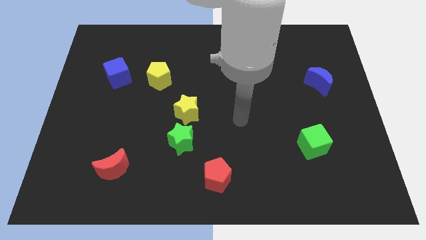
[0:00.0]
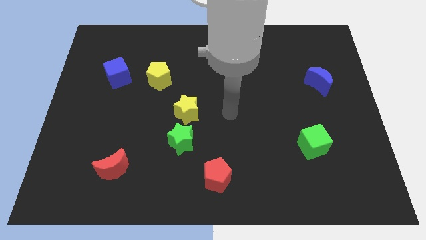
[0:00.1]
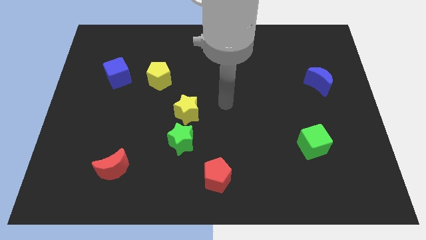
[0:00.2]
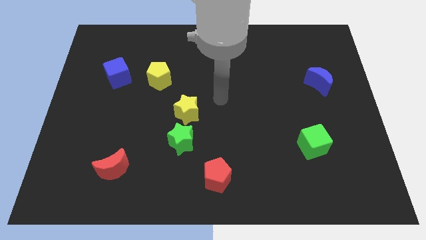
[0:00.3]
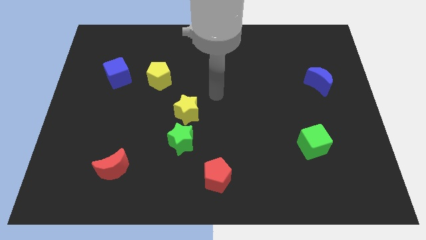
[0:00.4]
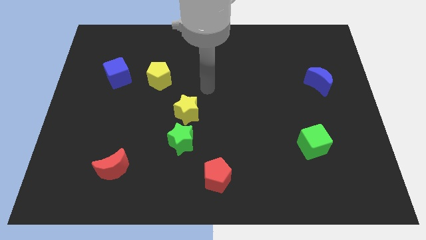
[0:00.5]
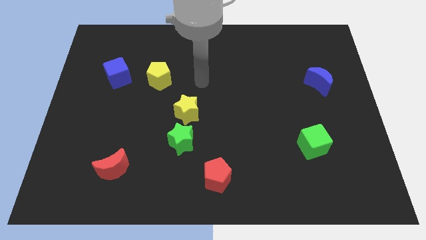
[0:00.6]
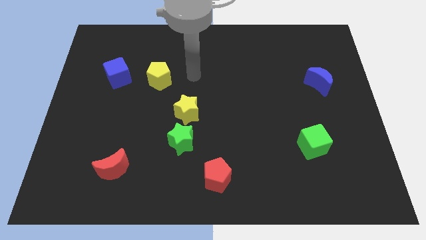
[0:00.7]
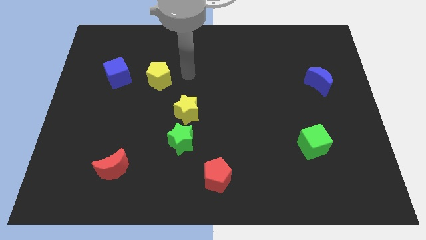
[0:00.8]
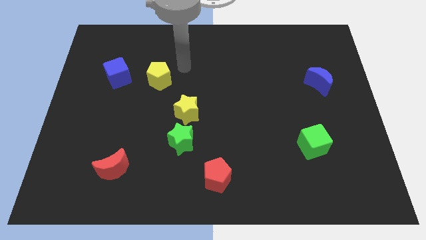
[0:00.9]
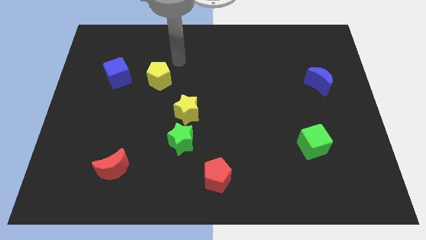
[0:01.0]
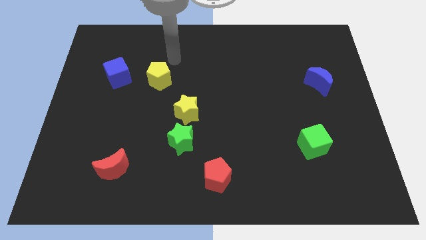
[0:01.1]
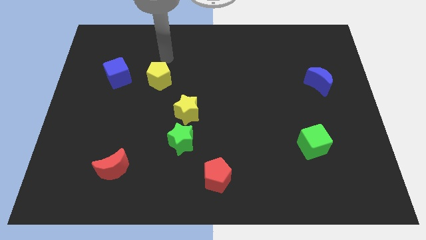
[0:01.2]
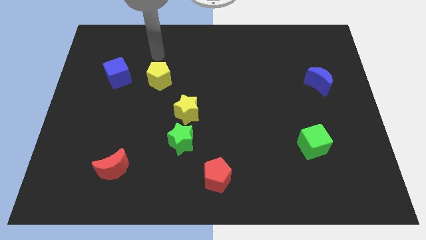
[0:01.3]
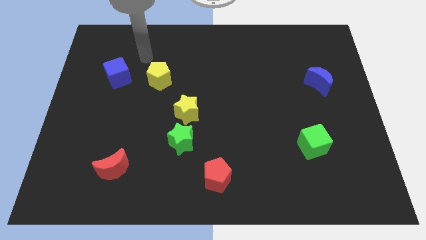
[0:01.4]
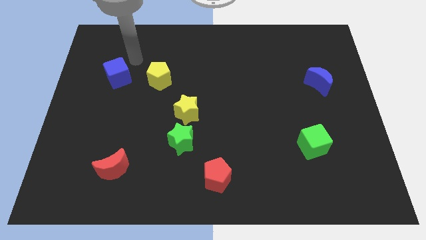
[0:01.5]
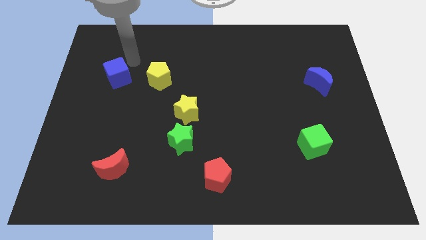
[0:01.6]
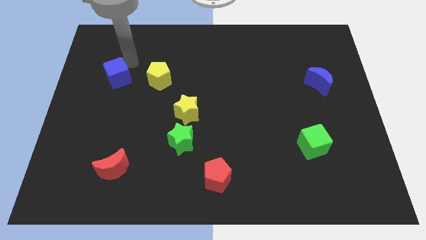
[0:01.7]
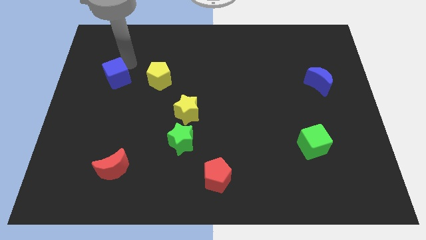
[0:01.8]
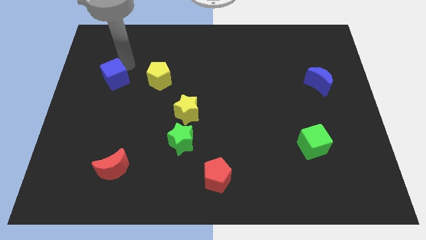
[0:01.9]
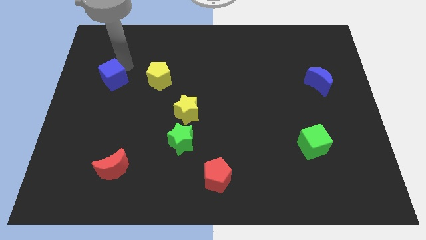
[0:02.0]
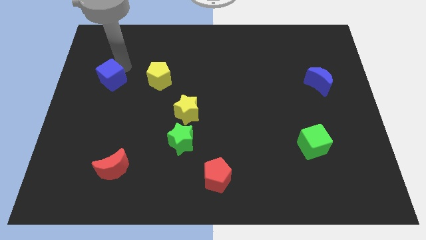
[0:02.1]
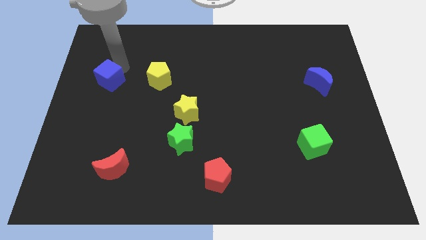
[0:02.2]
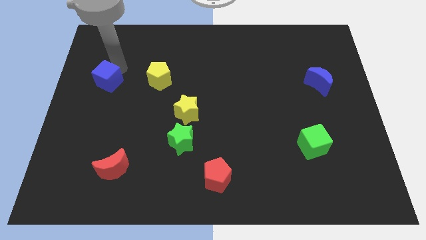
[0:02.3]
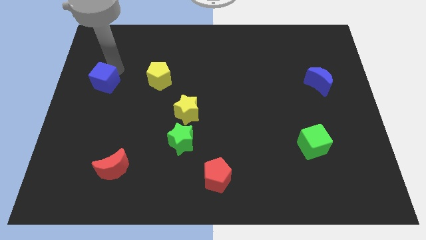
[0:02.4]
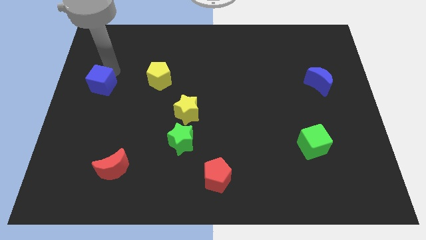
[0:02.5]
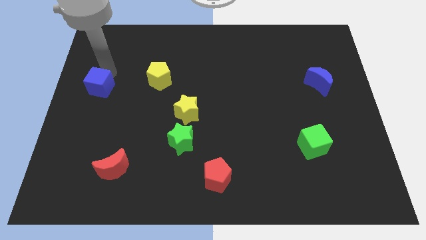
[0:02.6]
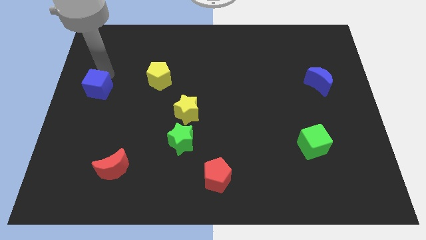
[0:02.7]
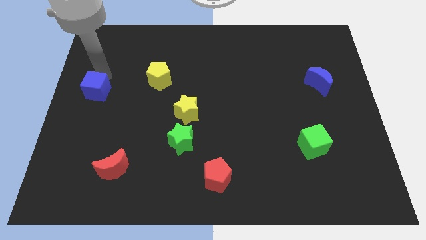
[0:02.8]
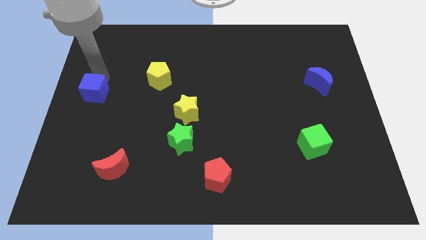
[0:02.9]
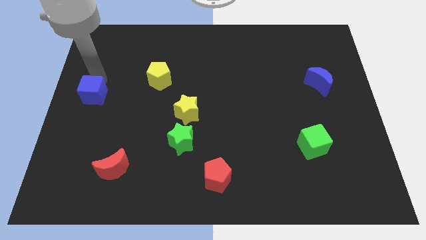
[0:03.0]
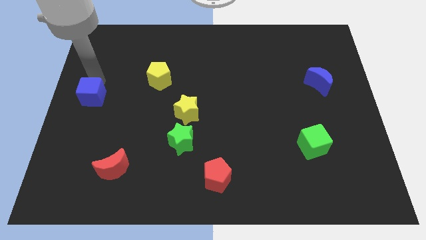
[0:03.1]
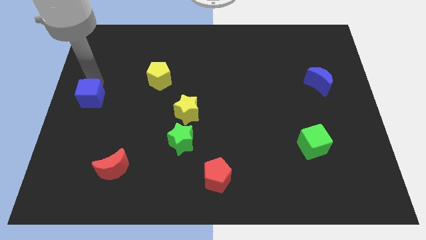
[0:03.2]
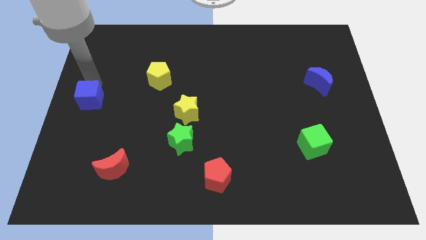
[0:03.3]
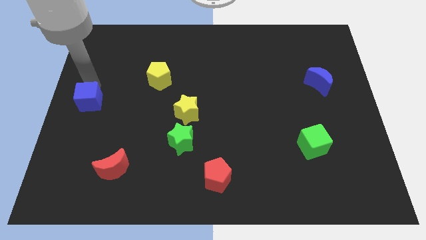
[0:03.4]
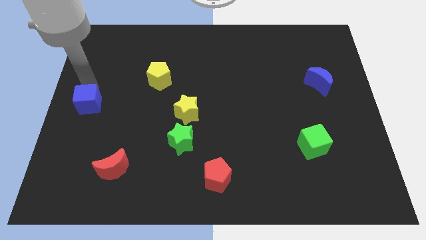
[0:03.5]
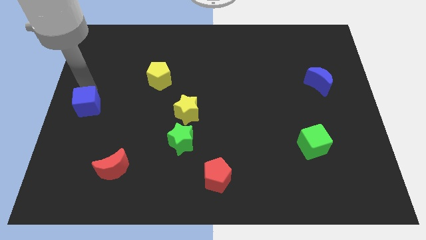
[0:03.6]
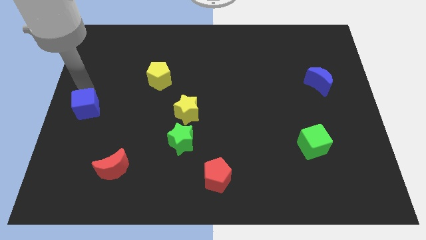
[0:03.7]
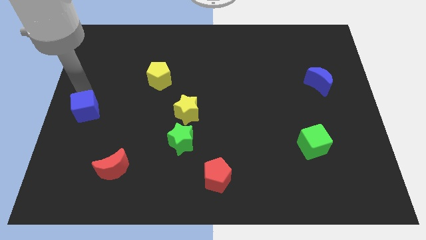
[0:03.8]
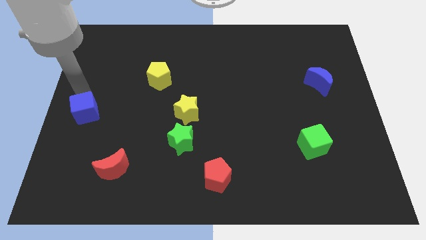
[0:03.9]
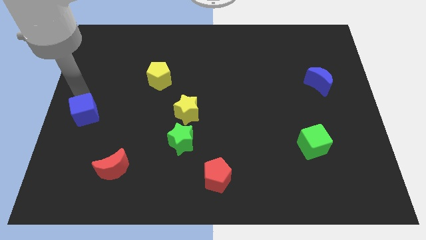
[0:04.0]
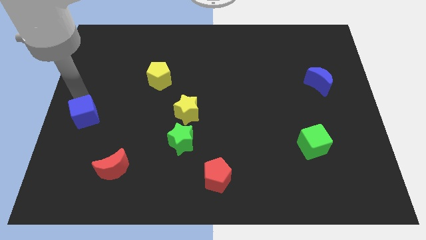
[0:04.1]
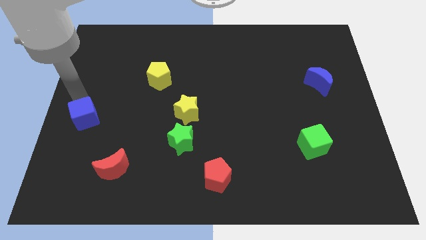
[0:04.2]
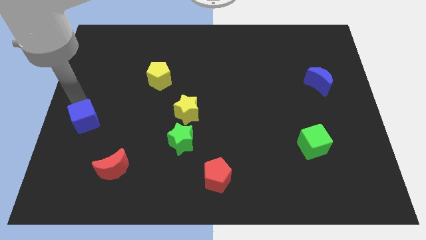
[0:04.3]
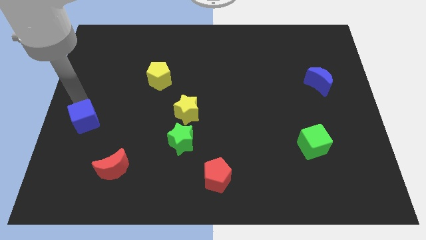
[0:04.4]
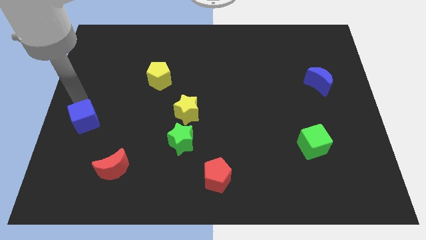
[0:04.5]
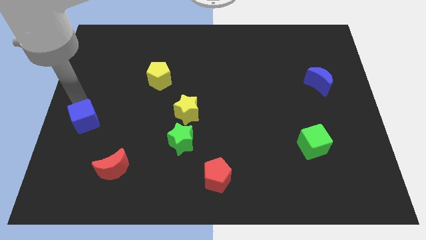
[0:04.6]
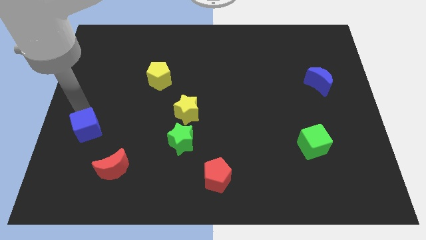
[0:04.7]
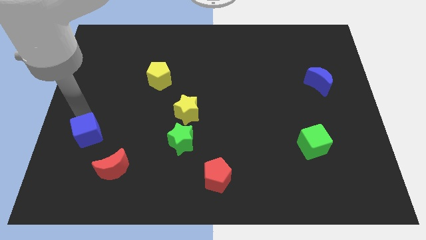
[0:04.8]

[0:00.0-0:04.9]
put the blue cube diagonally up and to the left of the red moon

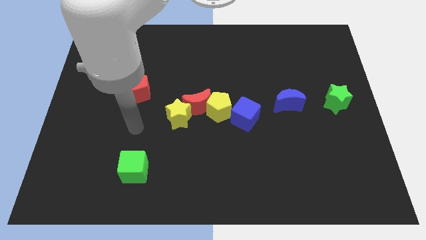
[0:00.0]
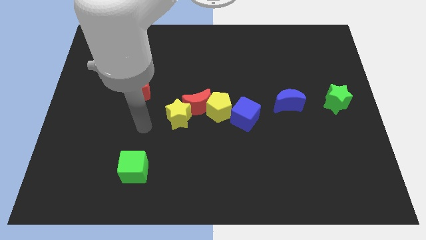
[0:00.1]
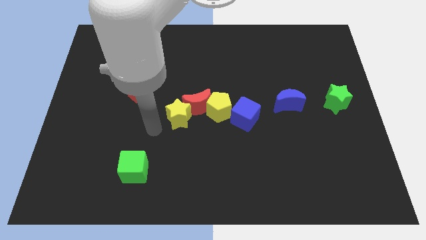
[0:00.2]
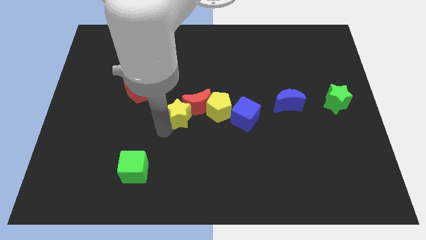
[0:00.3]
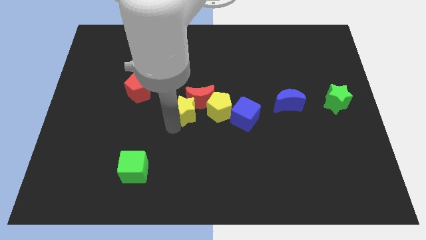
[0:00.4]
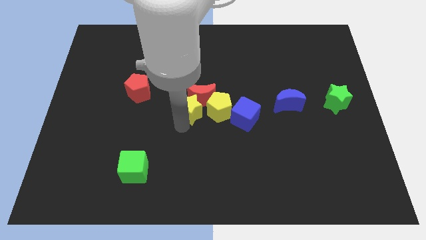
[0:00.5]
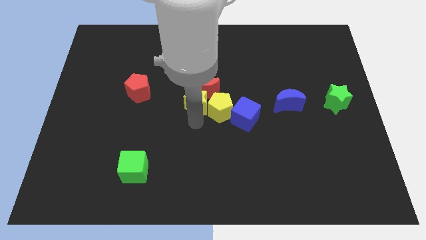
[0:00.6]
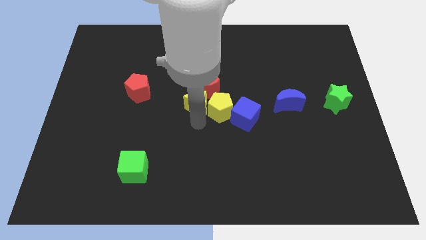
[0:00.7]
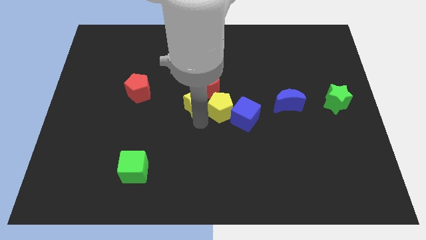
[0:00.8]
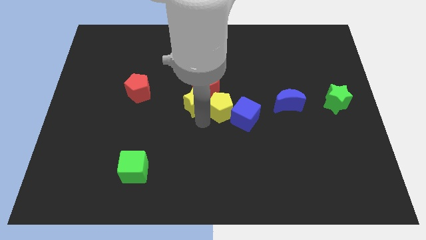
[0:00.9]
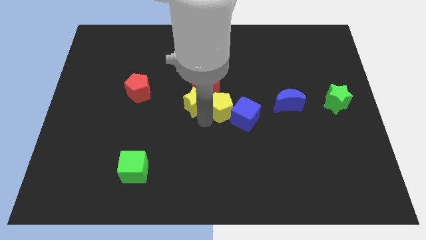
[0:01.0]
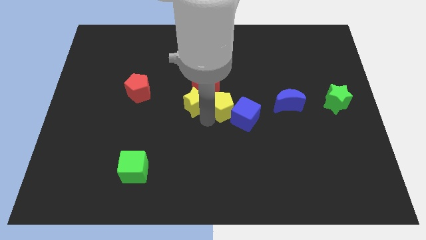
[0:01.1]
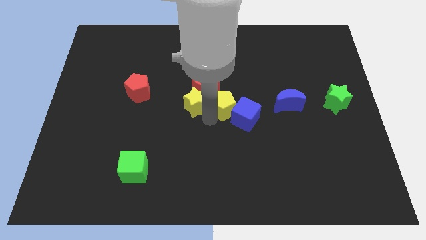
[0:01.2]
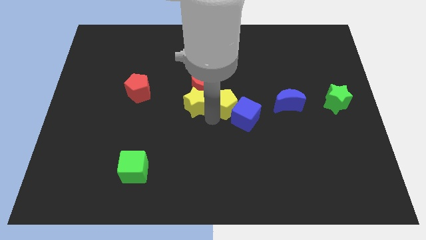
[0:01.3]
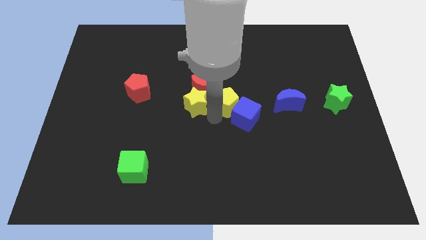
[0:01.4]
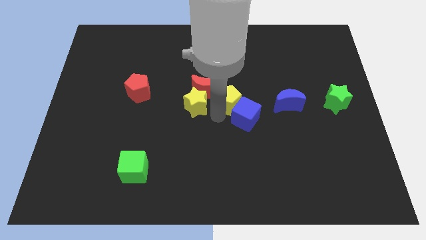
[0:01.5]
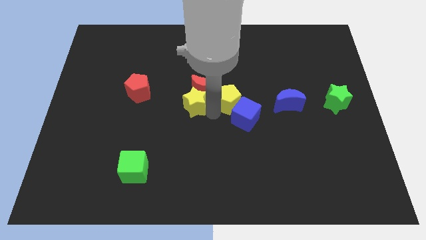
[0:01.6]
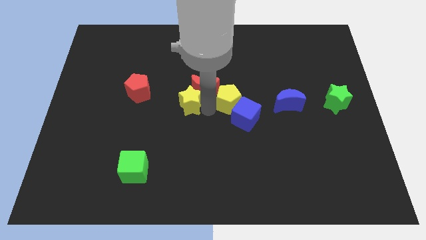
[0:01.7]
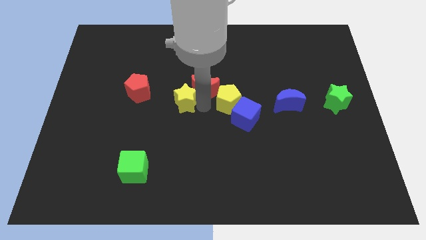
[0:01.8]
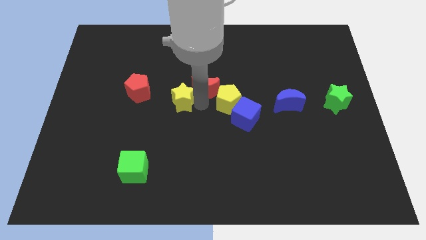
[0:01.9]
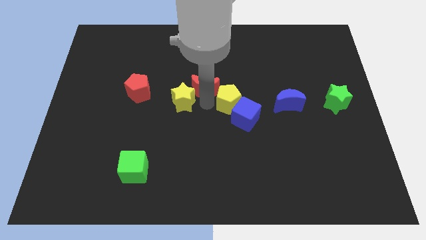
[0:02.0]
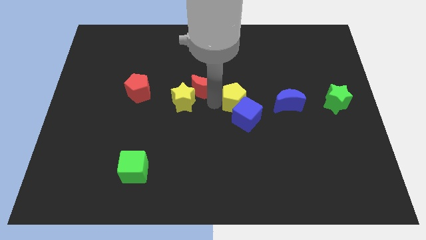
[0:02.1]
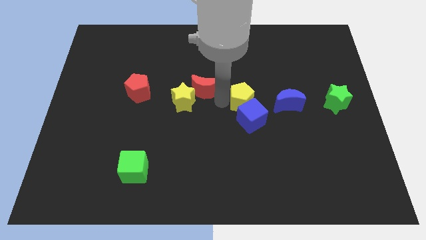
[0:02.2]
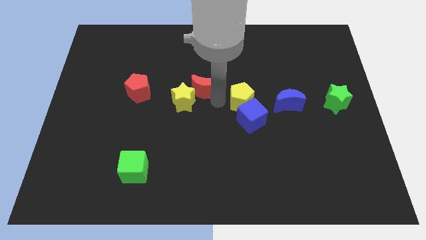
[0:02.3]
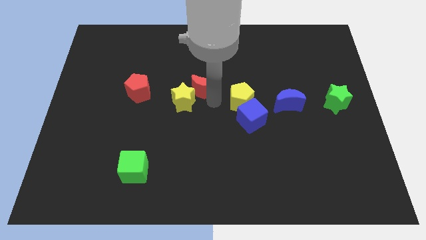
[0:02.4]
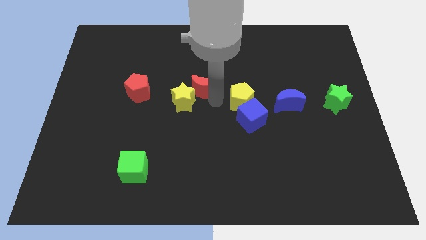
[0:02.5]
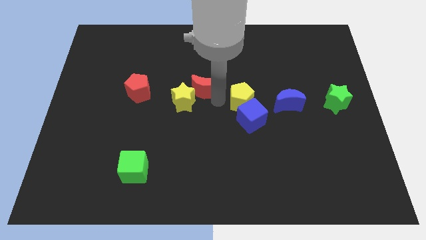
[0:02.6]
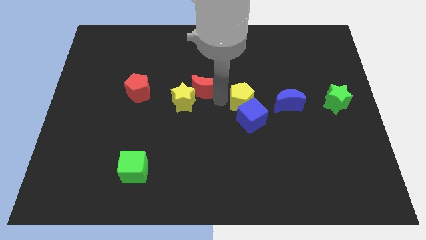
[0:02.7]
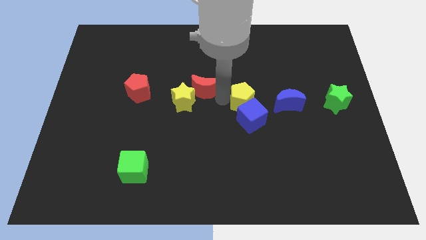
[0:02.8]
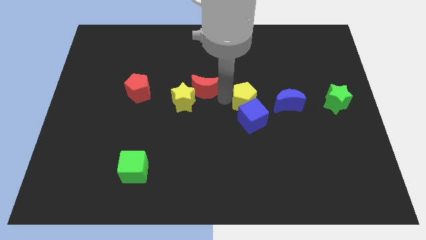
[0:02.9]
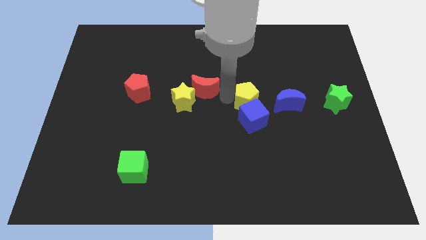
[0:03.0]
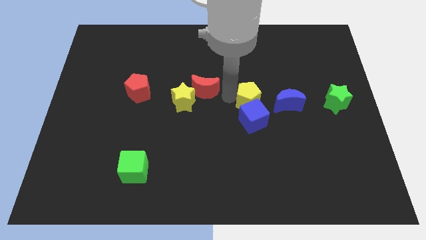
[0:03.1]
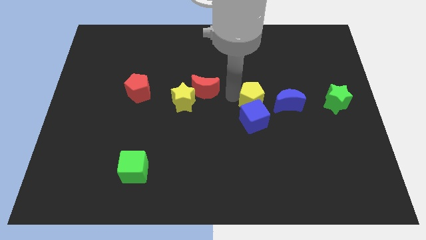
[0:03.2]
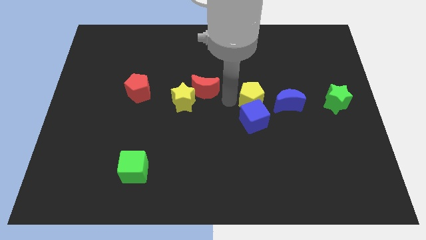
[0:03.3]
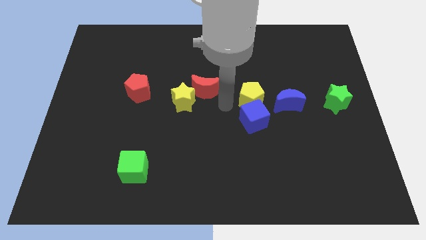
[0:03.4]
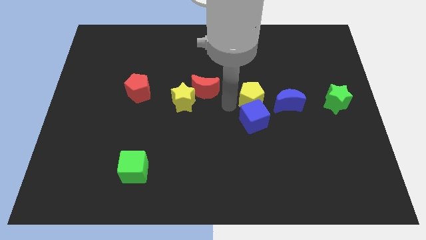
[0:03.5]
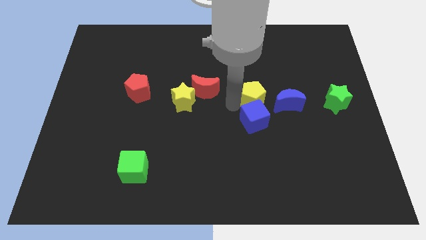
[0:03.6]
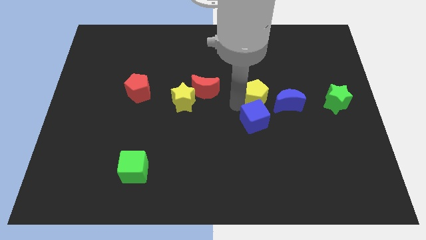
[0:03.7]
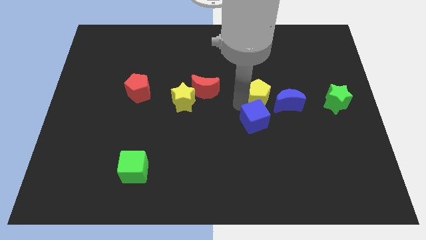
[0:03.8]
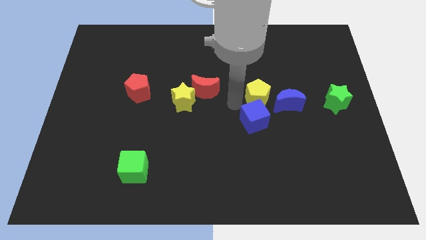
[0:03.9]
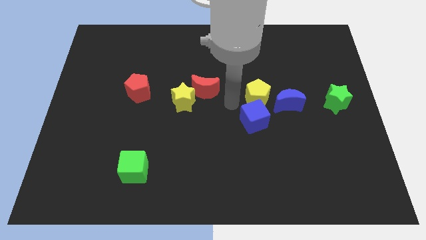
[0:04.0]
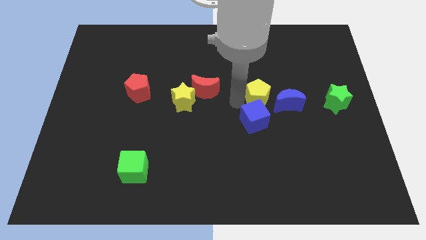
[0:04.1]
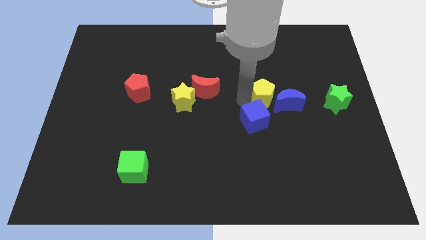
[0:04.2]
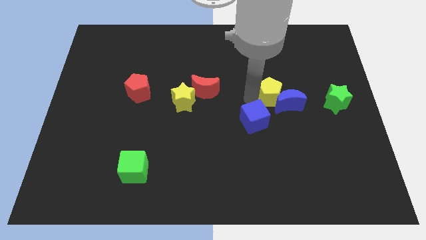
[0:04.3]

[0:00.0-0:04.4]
push the yellow pentagon to the left of the green star
